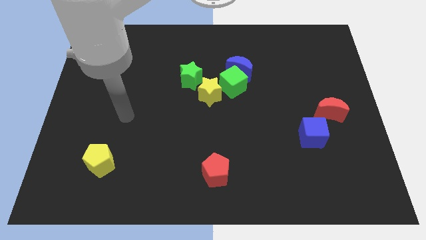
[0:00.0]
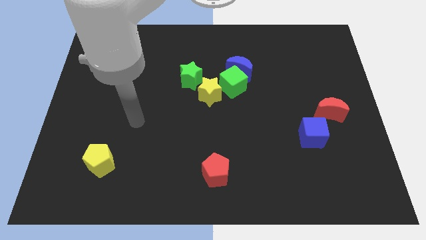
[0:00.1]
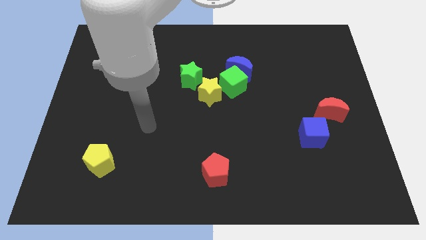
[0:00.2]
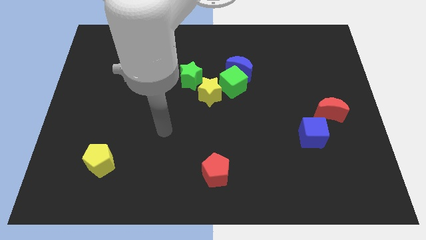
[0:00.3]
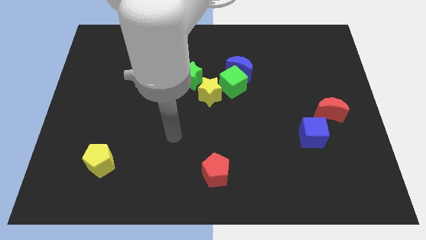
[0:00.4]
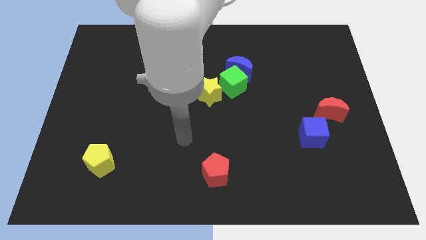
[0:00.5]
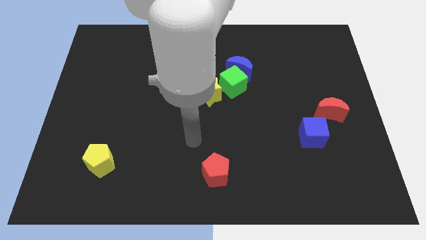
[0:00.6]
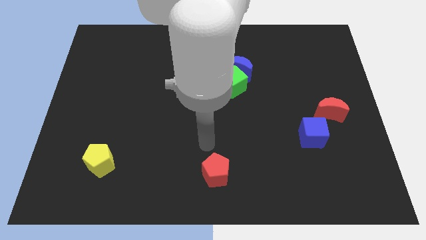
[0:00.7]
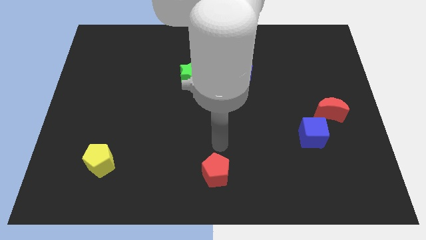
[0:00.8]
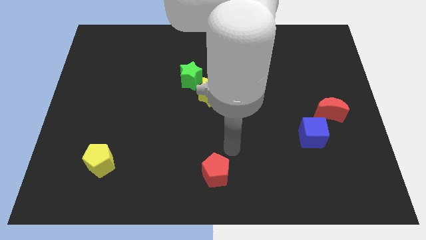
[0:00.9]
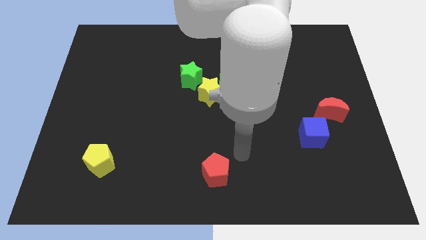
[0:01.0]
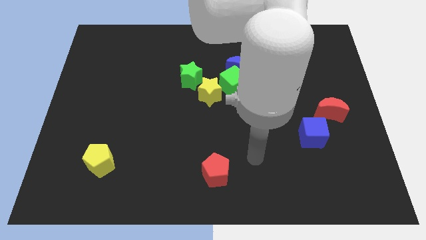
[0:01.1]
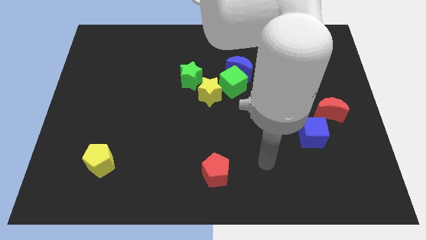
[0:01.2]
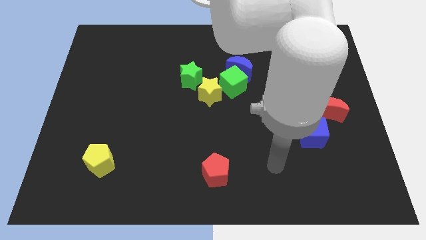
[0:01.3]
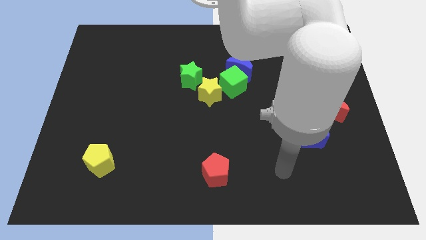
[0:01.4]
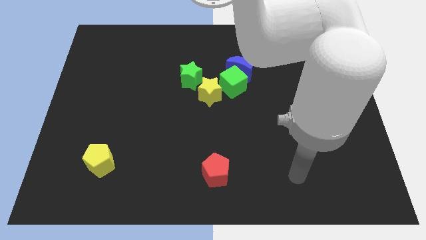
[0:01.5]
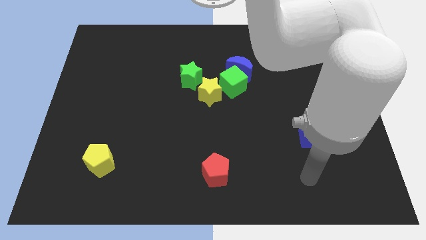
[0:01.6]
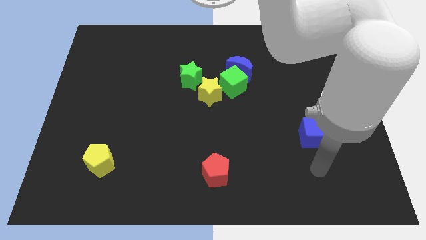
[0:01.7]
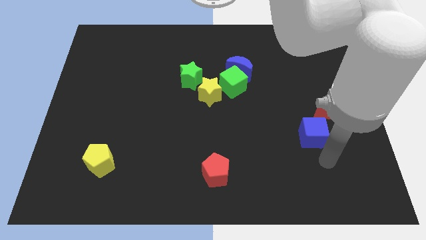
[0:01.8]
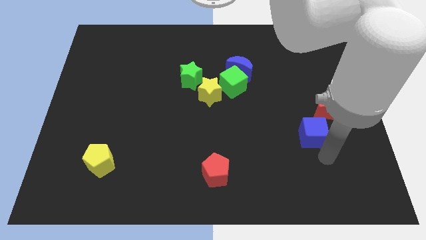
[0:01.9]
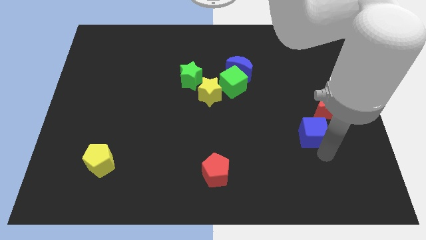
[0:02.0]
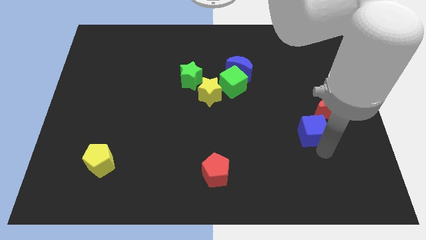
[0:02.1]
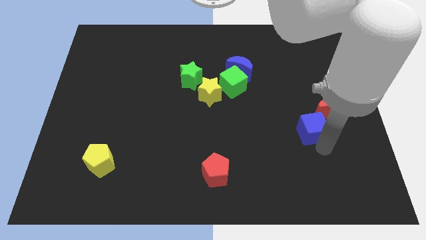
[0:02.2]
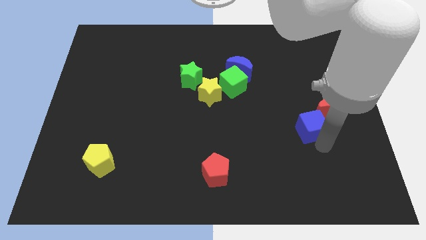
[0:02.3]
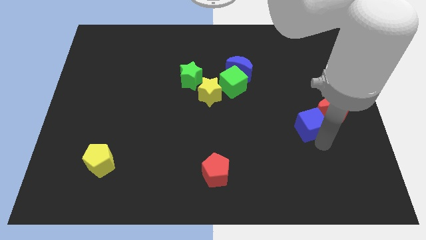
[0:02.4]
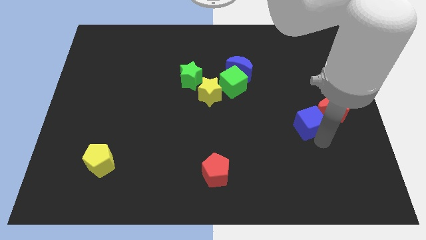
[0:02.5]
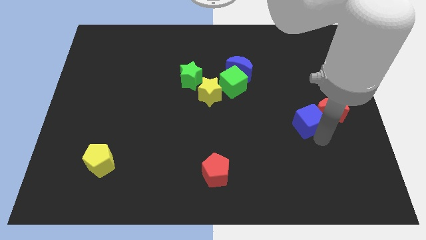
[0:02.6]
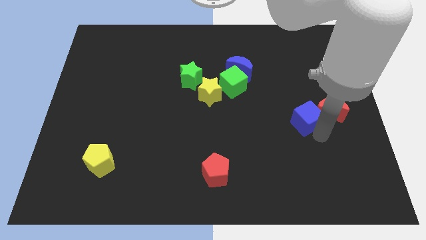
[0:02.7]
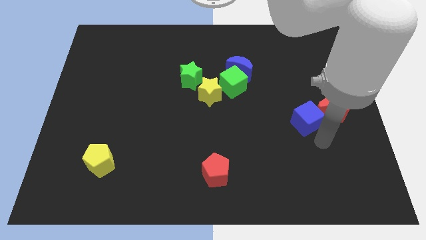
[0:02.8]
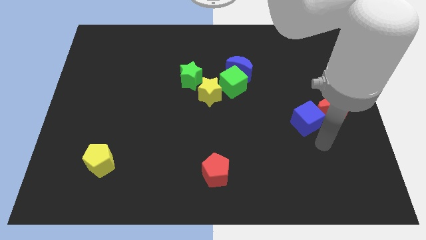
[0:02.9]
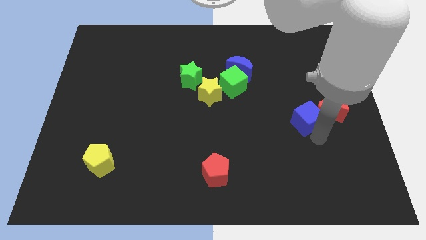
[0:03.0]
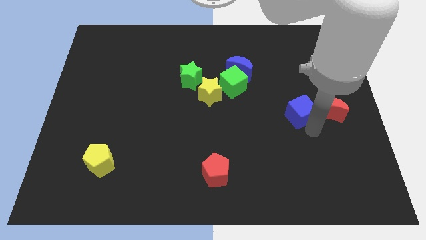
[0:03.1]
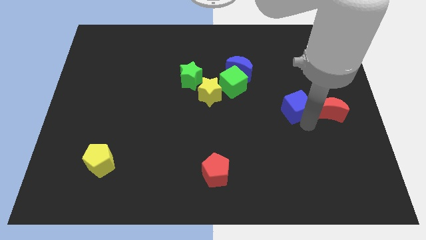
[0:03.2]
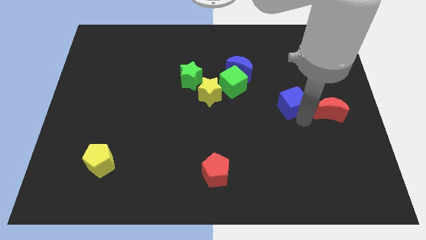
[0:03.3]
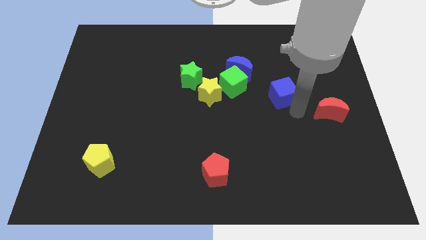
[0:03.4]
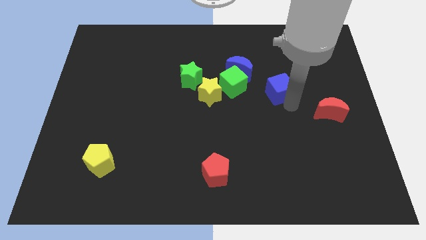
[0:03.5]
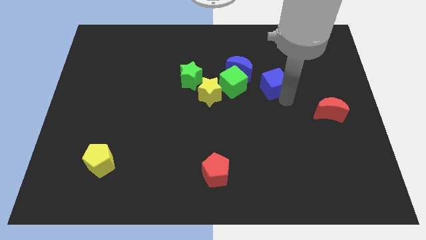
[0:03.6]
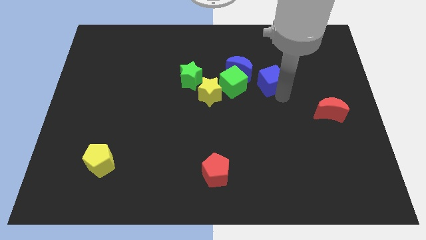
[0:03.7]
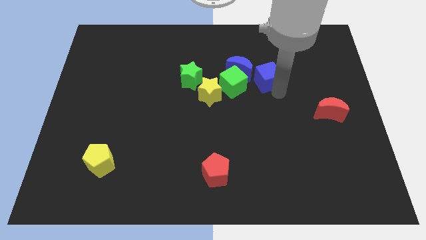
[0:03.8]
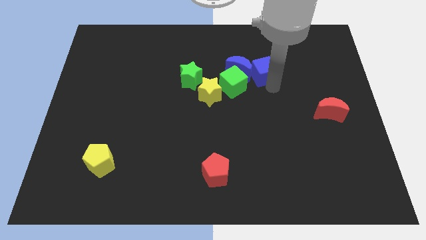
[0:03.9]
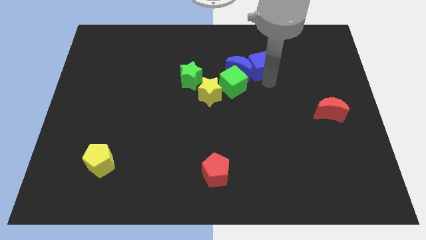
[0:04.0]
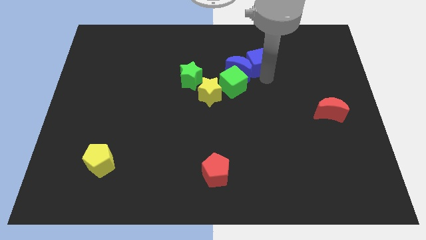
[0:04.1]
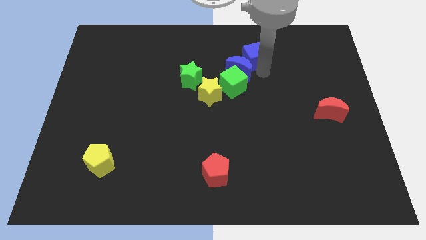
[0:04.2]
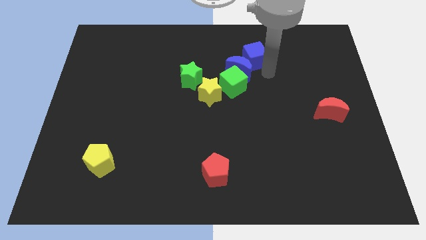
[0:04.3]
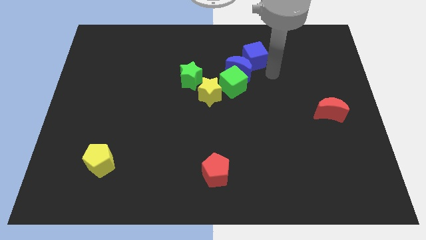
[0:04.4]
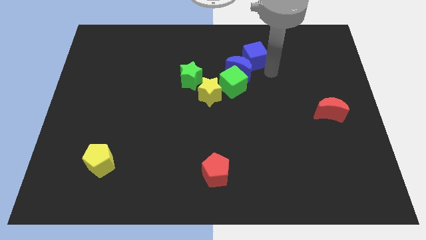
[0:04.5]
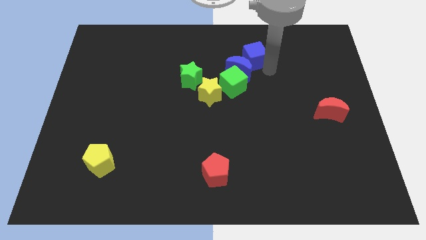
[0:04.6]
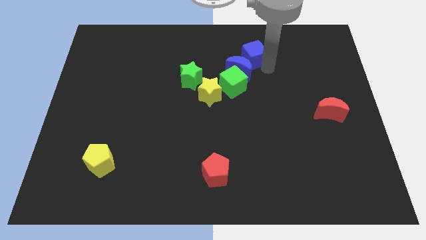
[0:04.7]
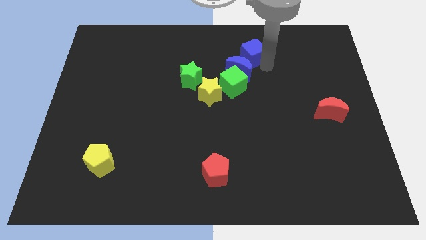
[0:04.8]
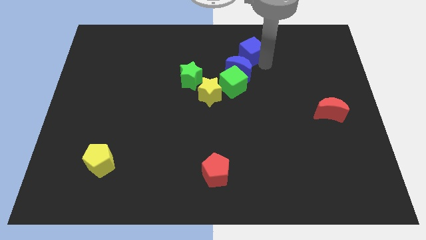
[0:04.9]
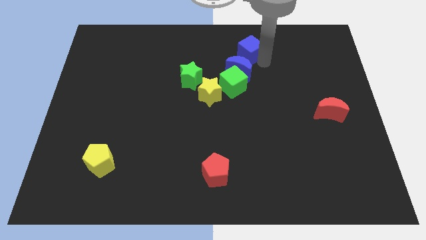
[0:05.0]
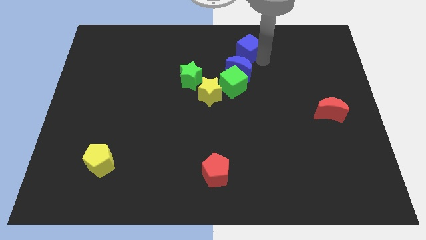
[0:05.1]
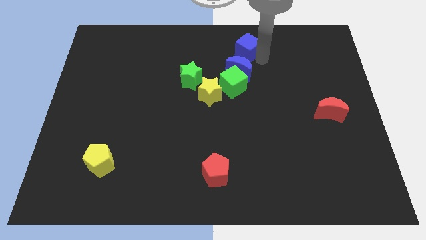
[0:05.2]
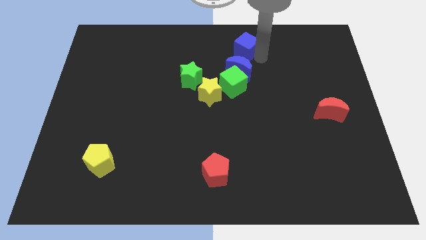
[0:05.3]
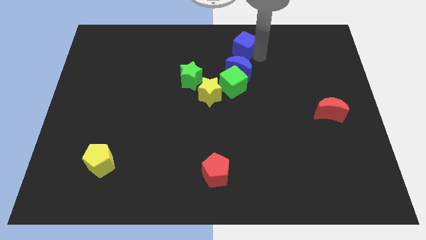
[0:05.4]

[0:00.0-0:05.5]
push the blue cube to the top

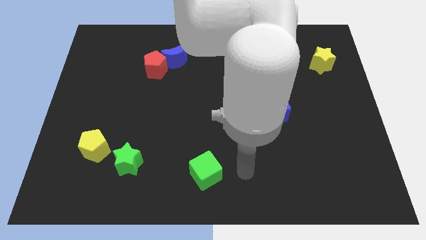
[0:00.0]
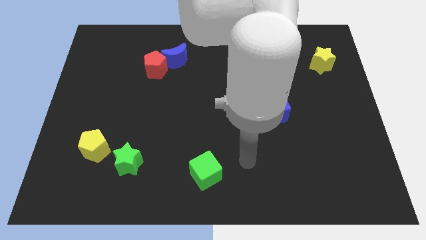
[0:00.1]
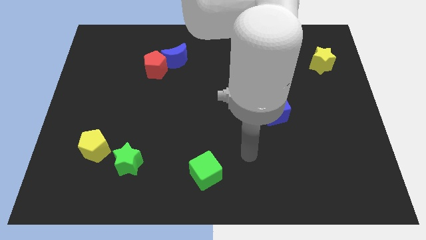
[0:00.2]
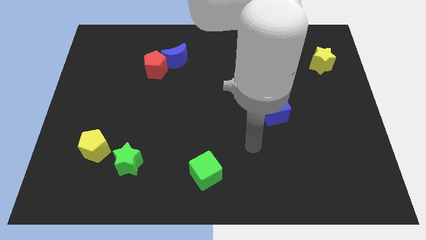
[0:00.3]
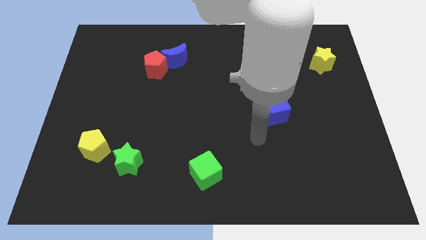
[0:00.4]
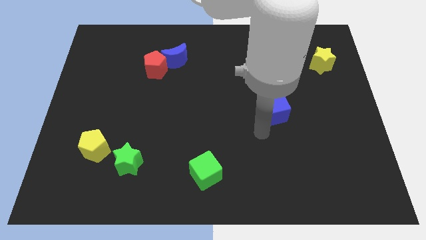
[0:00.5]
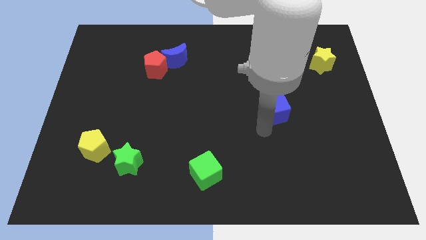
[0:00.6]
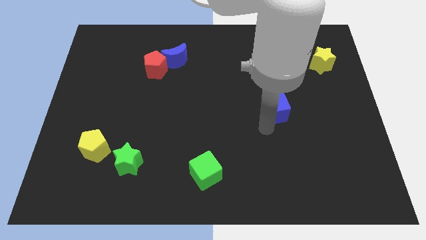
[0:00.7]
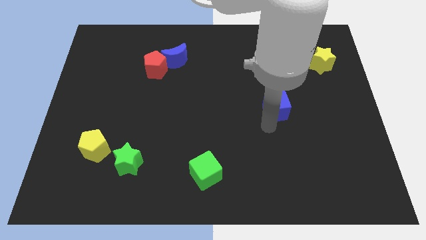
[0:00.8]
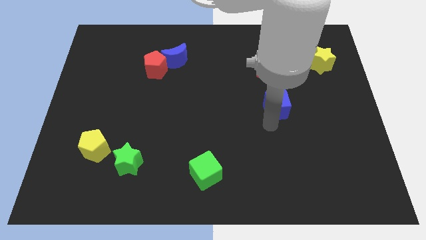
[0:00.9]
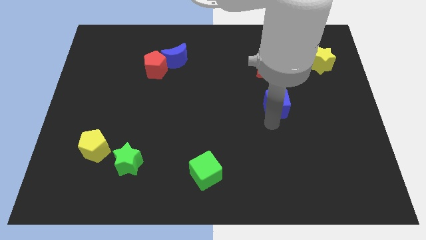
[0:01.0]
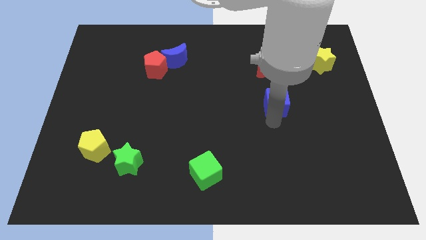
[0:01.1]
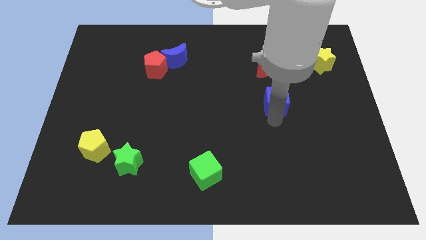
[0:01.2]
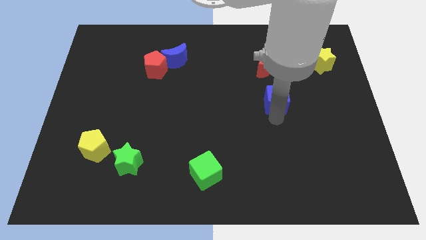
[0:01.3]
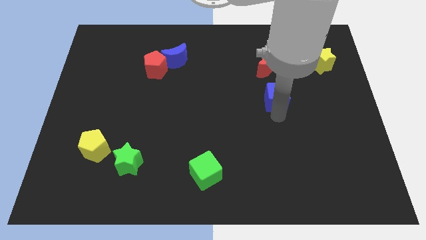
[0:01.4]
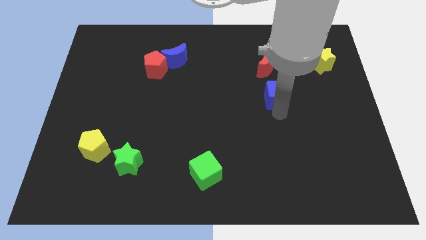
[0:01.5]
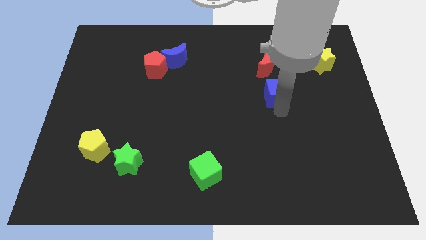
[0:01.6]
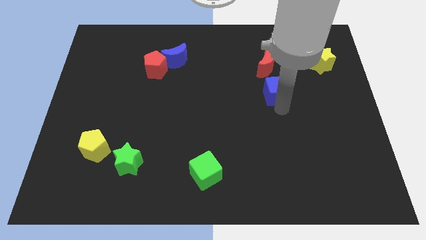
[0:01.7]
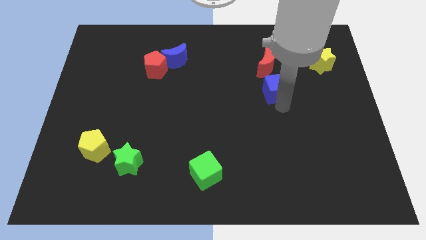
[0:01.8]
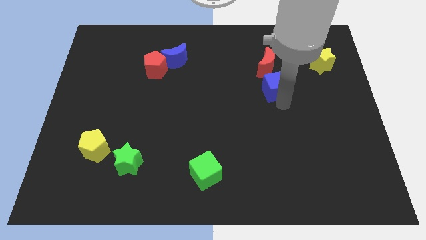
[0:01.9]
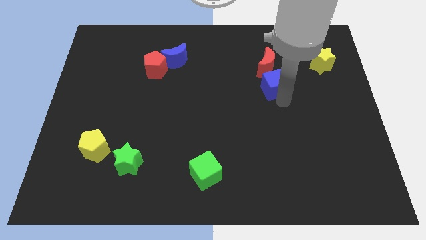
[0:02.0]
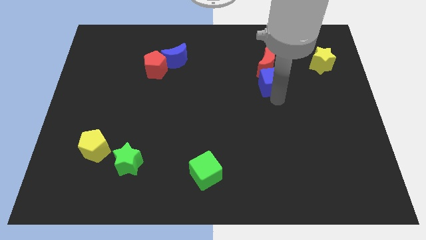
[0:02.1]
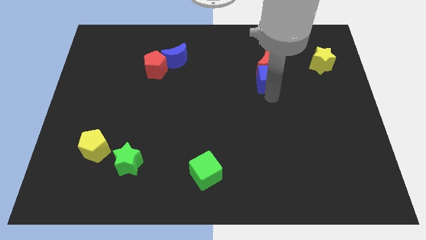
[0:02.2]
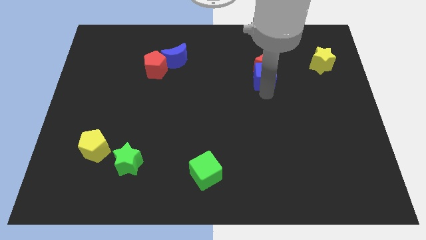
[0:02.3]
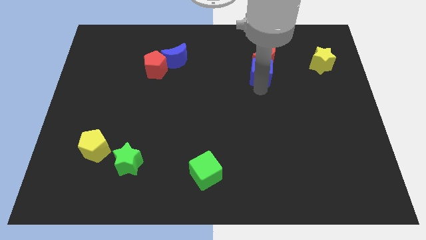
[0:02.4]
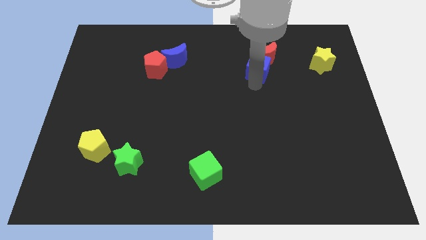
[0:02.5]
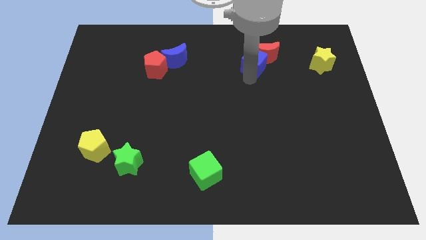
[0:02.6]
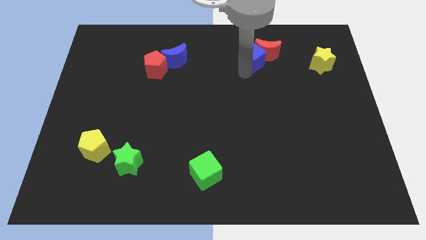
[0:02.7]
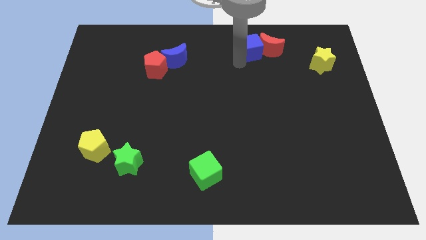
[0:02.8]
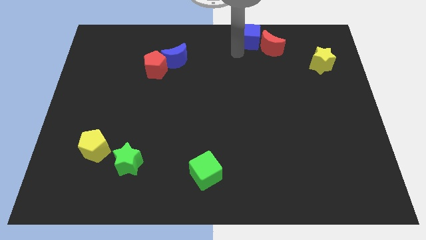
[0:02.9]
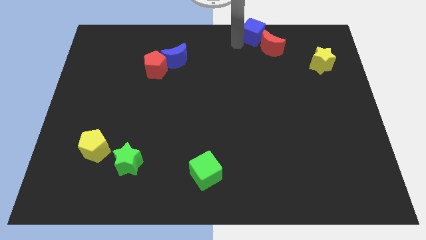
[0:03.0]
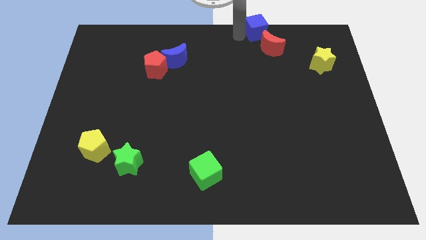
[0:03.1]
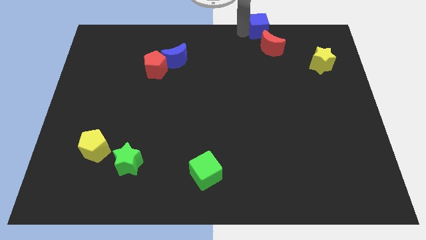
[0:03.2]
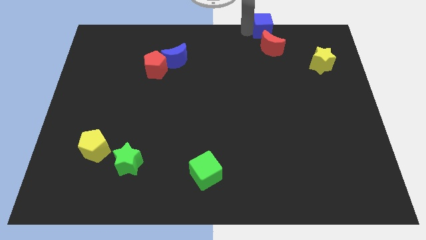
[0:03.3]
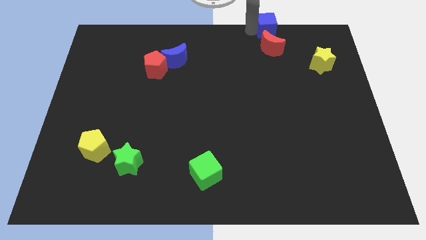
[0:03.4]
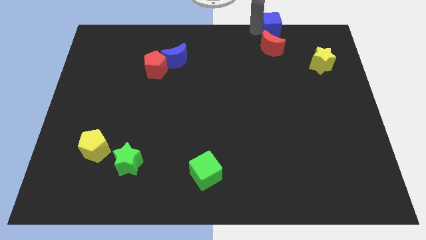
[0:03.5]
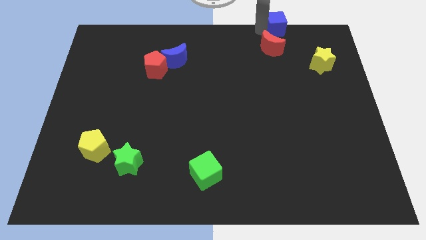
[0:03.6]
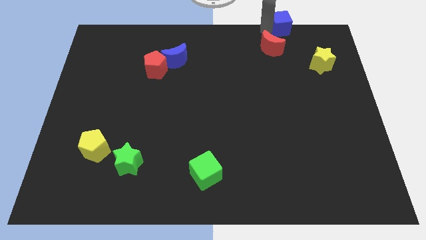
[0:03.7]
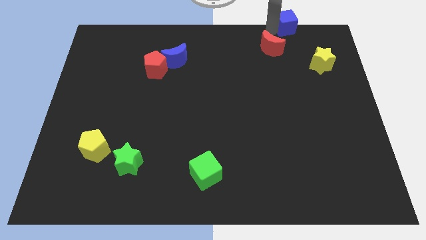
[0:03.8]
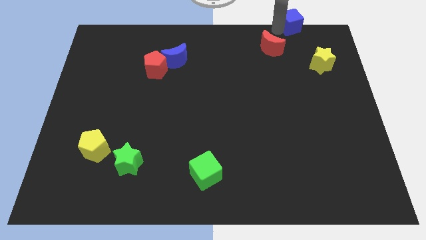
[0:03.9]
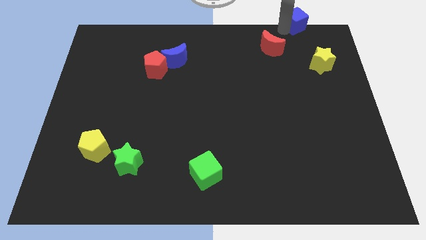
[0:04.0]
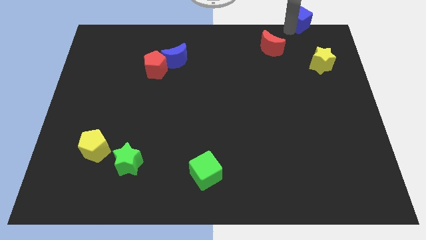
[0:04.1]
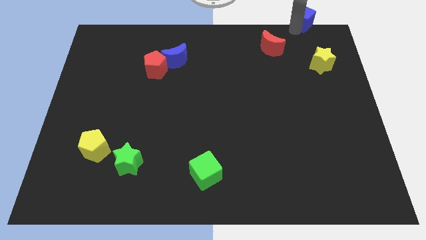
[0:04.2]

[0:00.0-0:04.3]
put the blue cube to the top right
